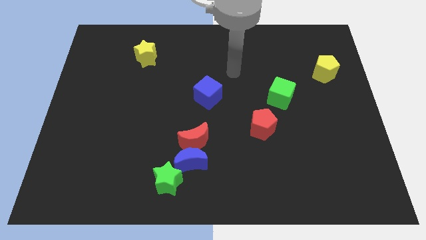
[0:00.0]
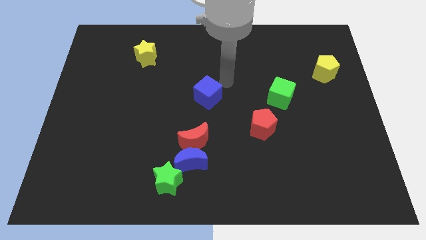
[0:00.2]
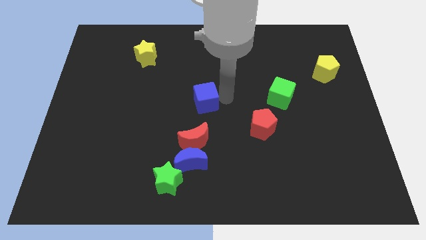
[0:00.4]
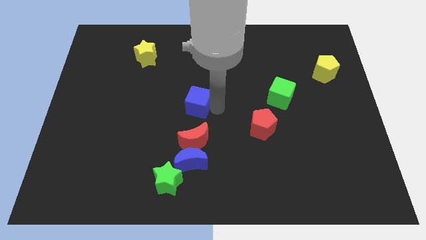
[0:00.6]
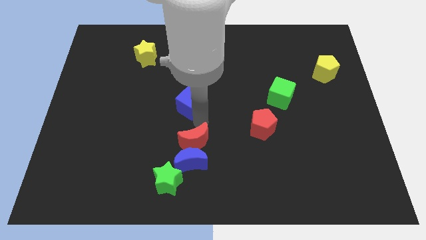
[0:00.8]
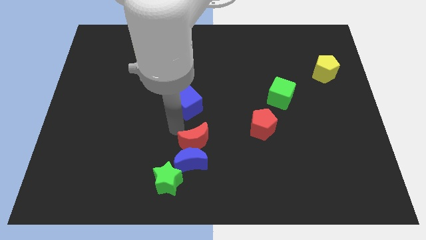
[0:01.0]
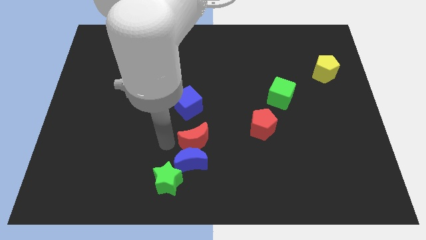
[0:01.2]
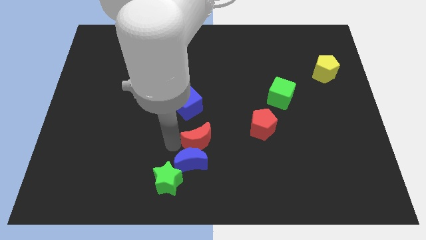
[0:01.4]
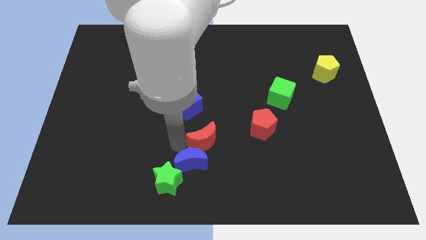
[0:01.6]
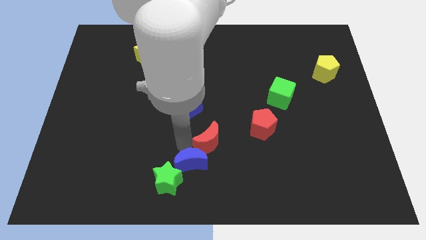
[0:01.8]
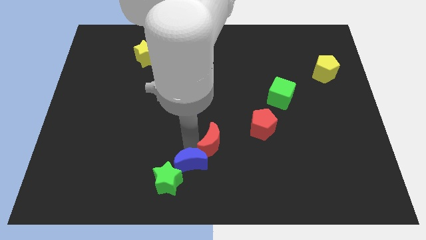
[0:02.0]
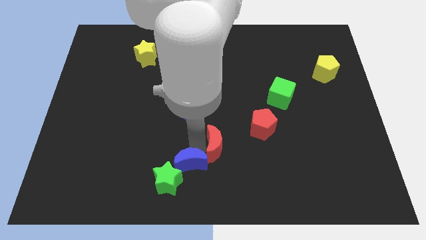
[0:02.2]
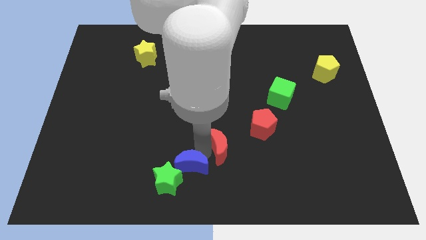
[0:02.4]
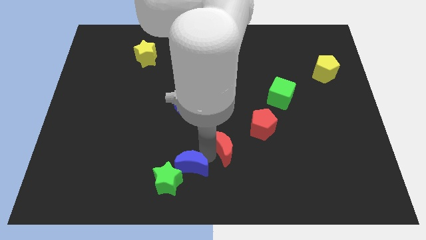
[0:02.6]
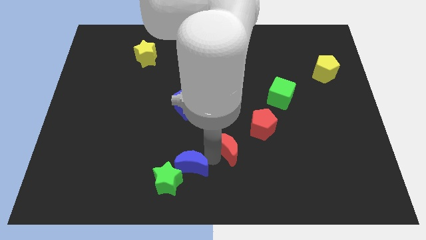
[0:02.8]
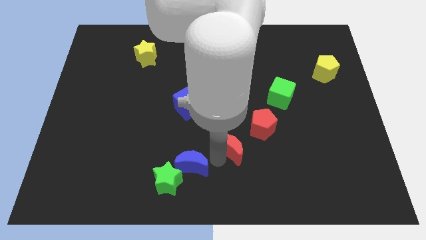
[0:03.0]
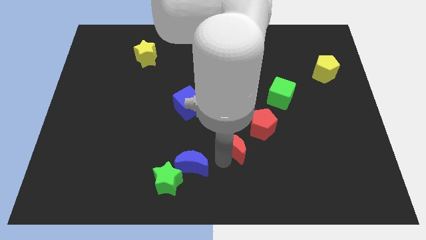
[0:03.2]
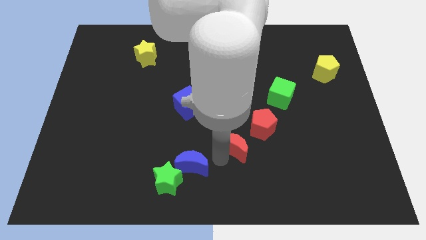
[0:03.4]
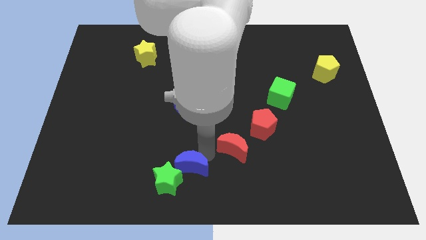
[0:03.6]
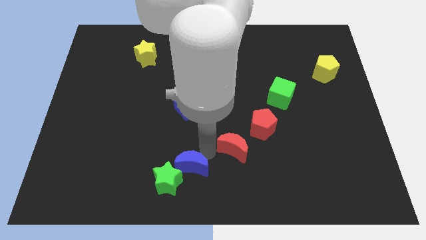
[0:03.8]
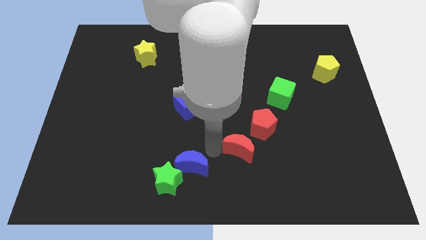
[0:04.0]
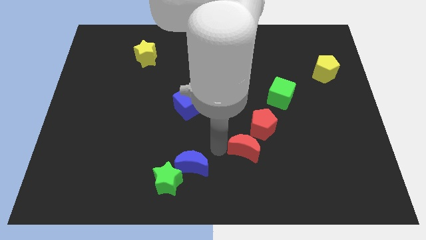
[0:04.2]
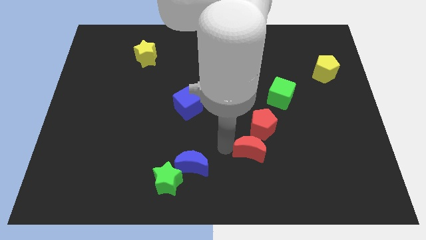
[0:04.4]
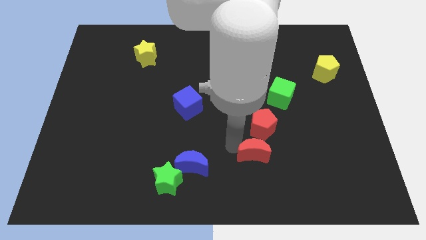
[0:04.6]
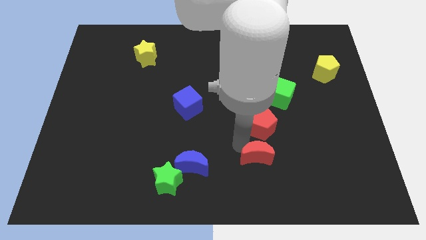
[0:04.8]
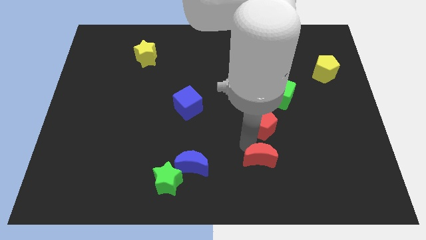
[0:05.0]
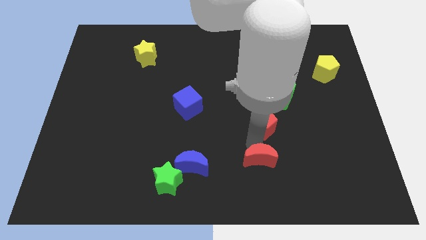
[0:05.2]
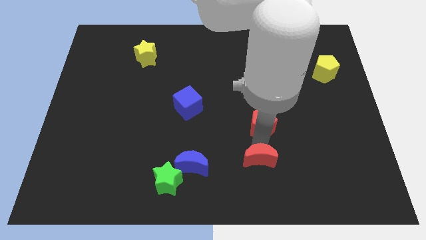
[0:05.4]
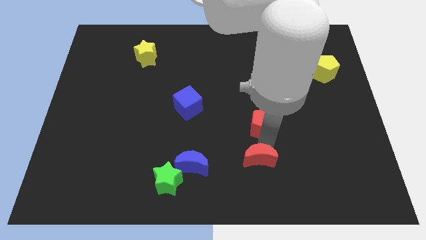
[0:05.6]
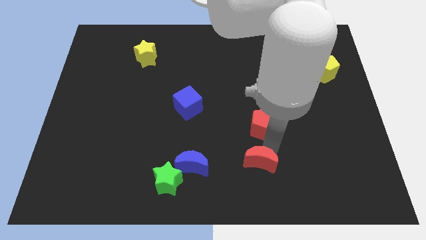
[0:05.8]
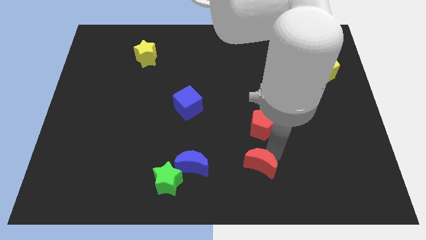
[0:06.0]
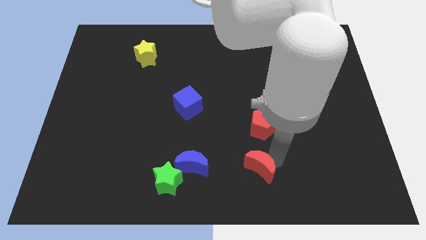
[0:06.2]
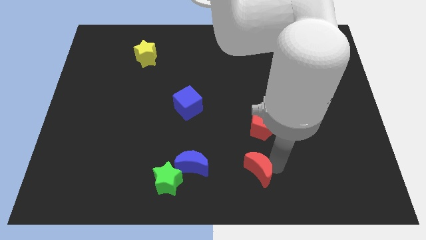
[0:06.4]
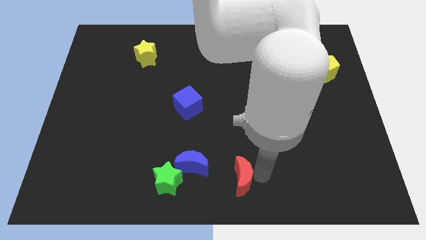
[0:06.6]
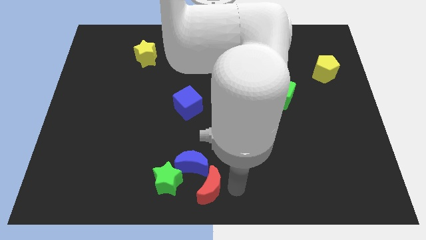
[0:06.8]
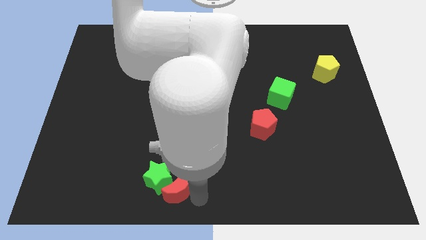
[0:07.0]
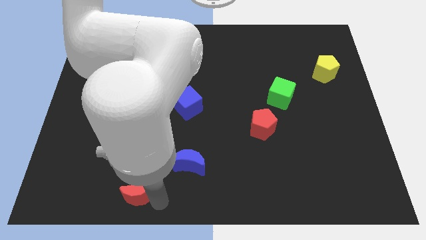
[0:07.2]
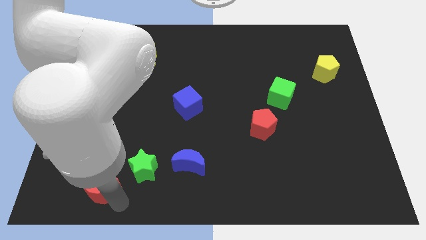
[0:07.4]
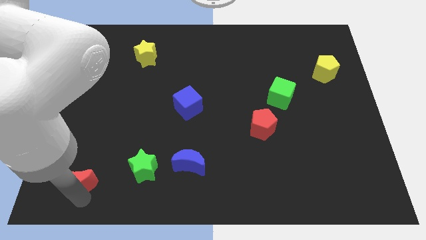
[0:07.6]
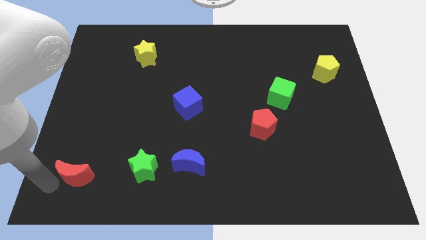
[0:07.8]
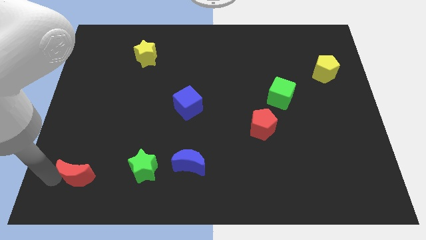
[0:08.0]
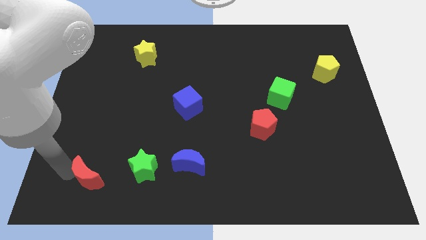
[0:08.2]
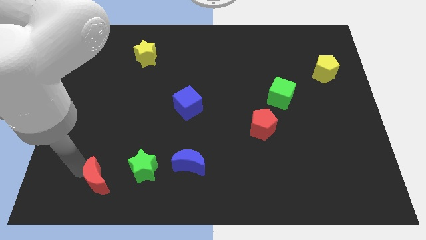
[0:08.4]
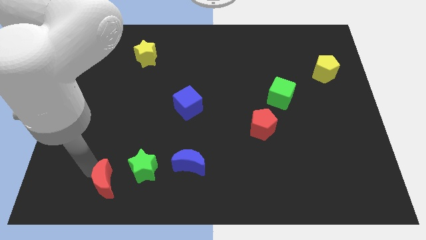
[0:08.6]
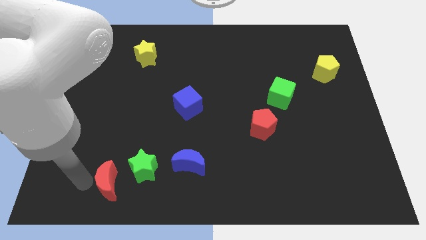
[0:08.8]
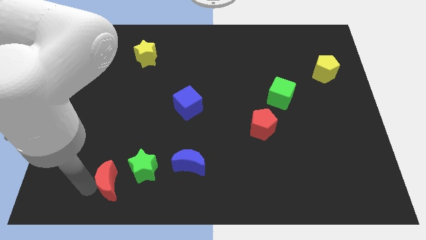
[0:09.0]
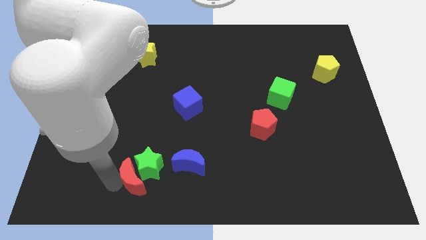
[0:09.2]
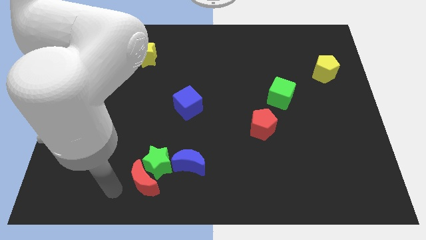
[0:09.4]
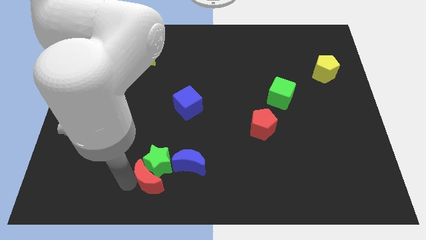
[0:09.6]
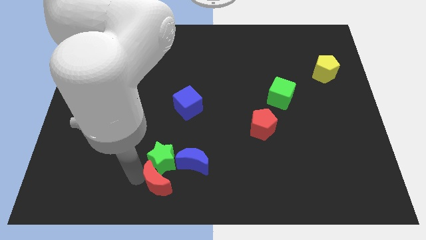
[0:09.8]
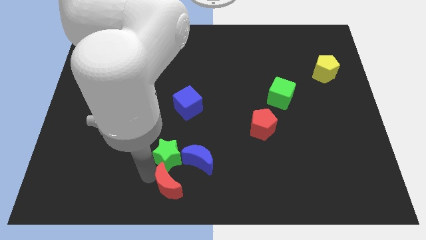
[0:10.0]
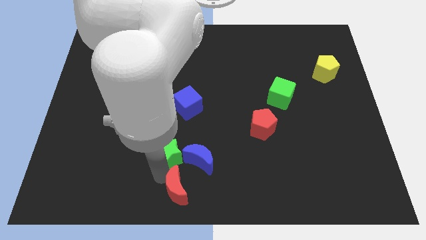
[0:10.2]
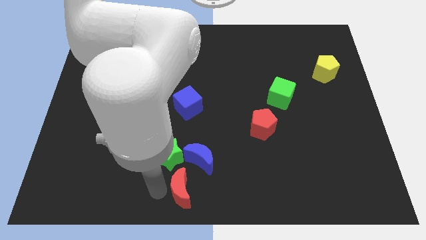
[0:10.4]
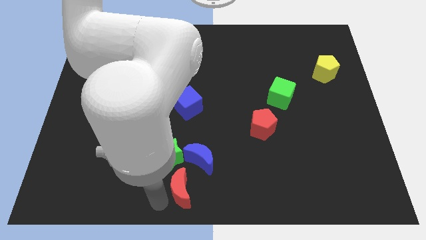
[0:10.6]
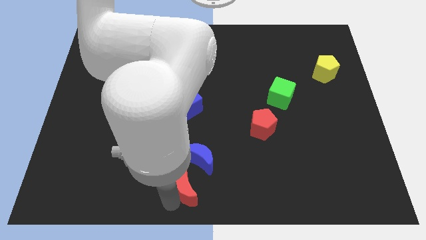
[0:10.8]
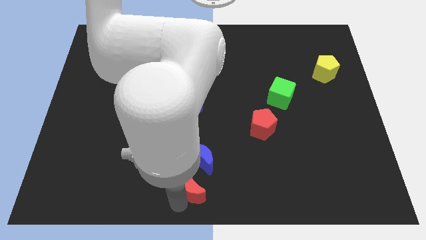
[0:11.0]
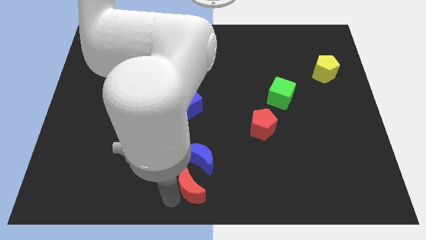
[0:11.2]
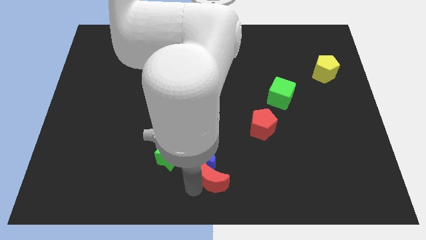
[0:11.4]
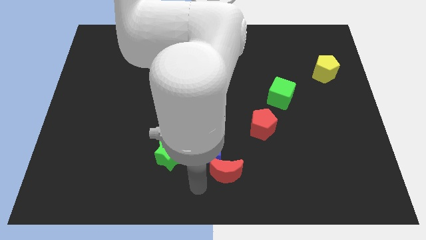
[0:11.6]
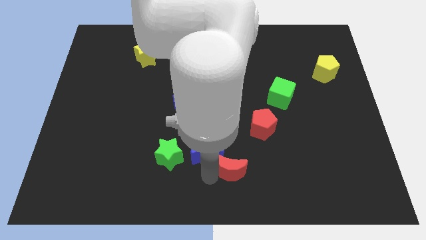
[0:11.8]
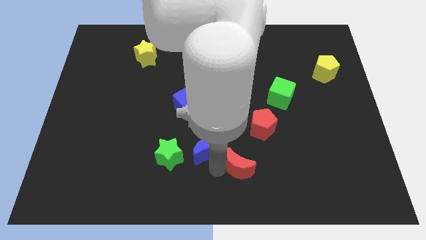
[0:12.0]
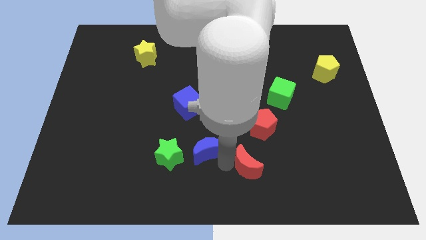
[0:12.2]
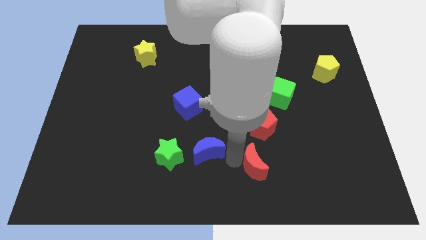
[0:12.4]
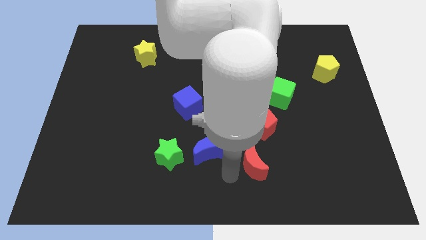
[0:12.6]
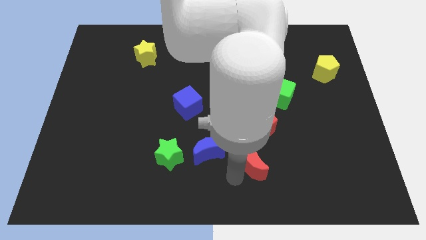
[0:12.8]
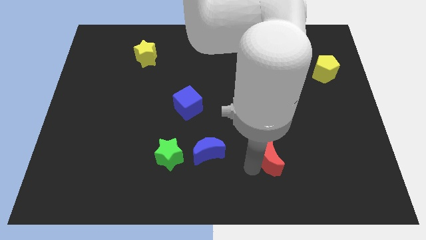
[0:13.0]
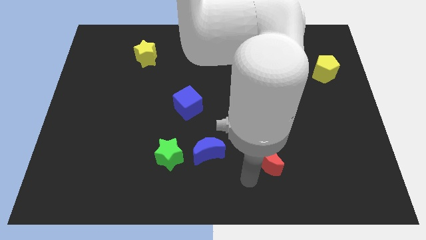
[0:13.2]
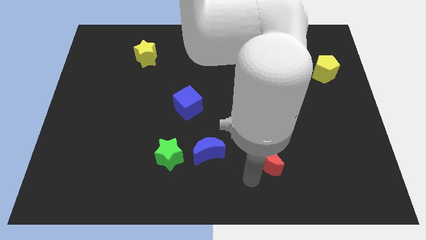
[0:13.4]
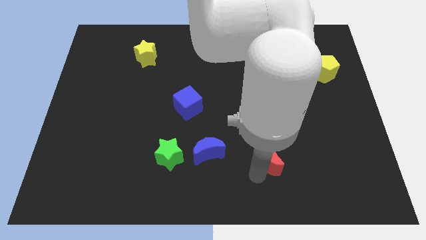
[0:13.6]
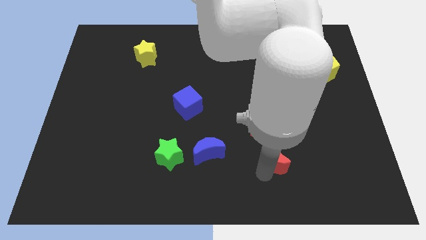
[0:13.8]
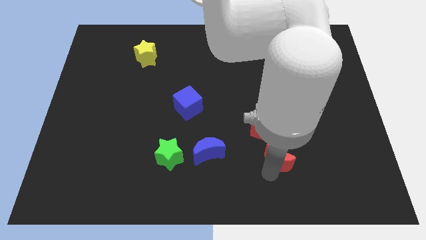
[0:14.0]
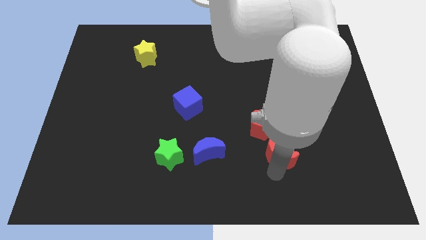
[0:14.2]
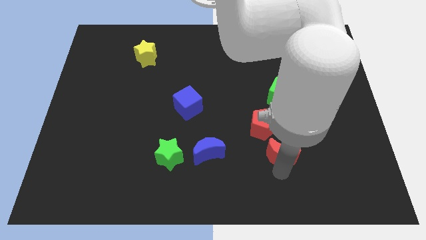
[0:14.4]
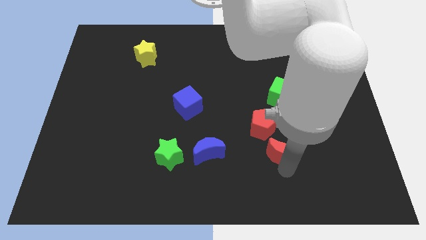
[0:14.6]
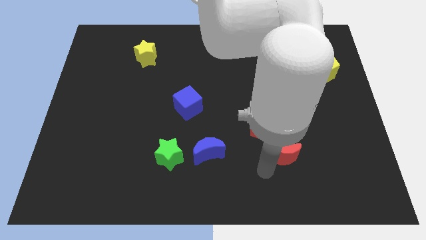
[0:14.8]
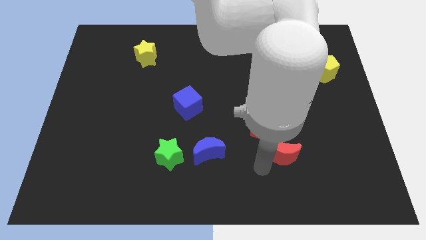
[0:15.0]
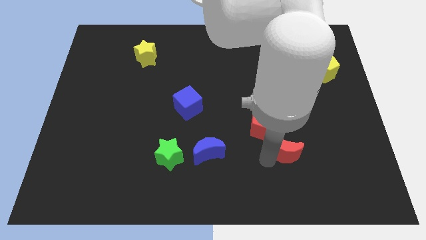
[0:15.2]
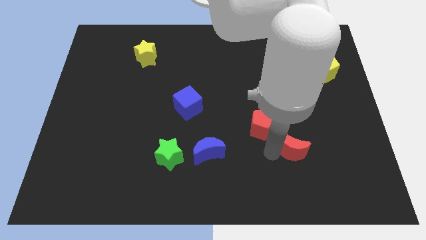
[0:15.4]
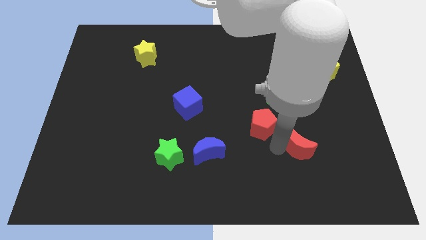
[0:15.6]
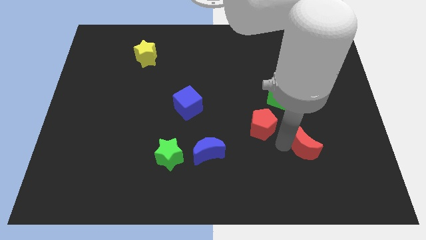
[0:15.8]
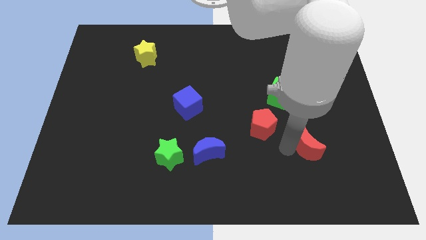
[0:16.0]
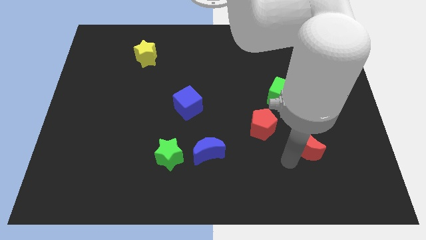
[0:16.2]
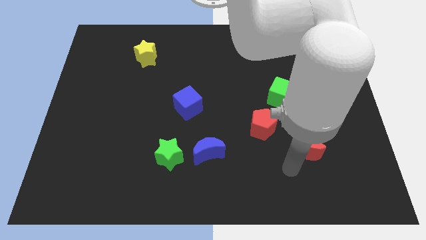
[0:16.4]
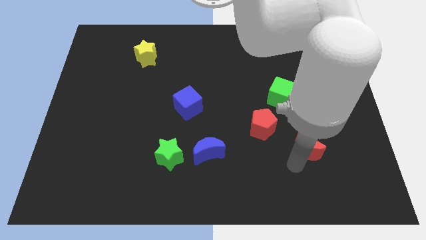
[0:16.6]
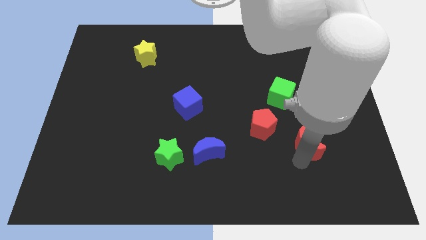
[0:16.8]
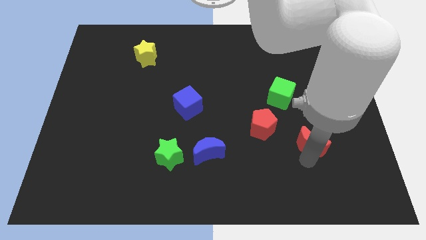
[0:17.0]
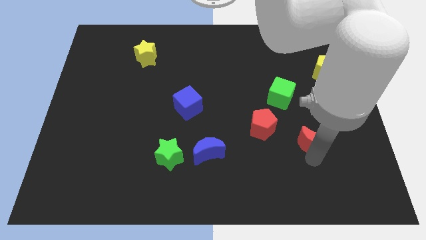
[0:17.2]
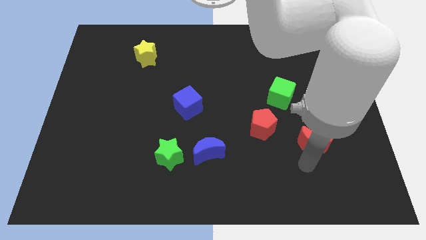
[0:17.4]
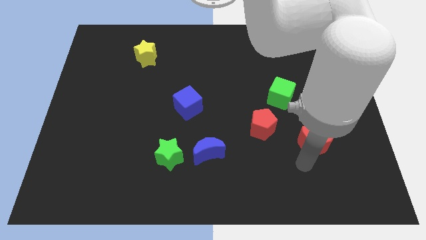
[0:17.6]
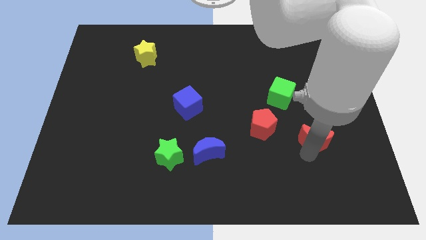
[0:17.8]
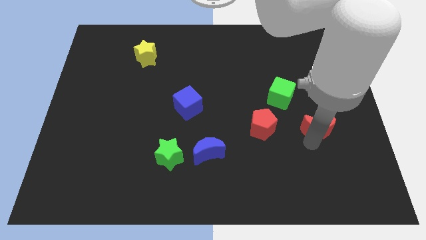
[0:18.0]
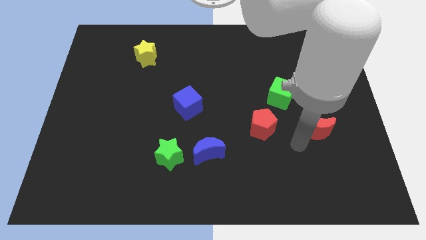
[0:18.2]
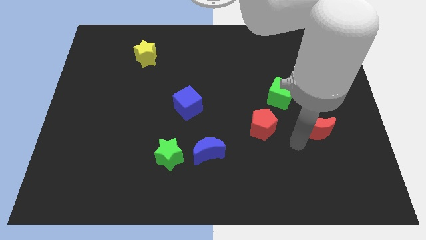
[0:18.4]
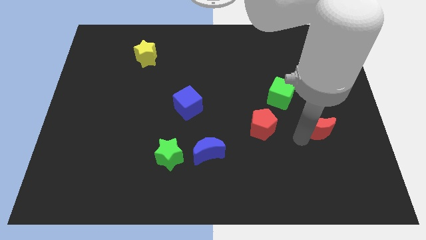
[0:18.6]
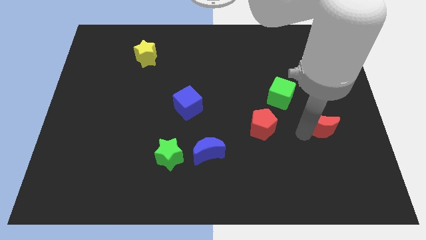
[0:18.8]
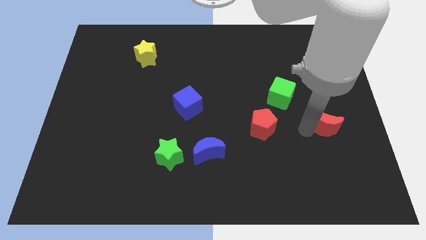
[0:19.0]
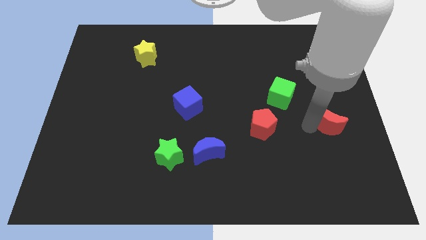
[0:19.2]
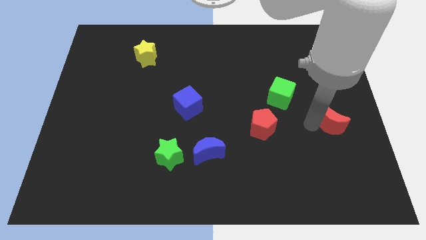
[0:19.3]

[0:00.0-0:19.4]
slide the red moon to the right side
